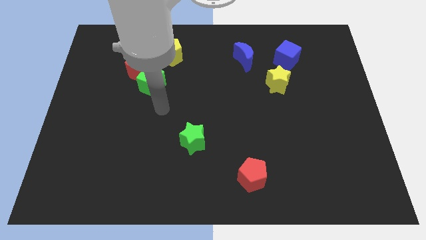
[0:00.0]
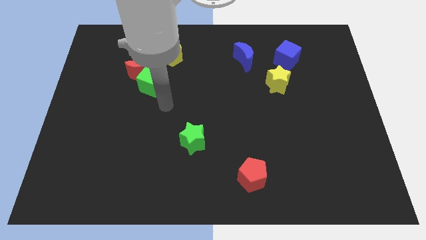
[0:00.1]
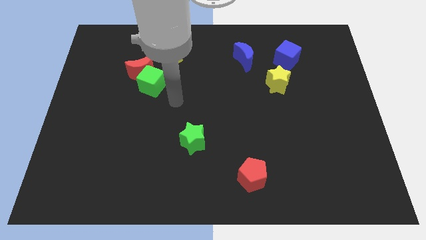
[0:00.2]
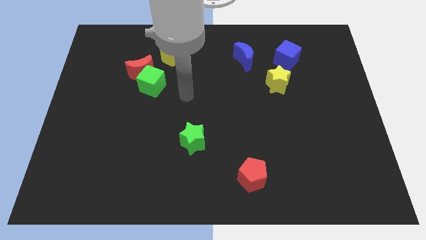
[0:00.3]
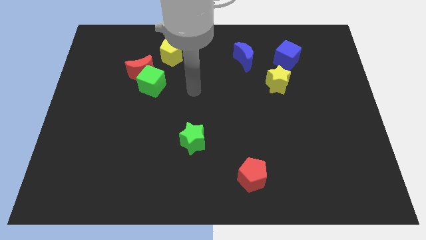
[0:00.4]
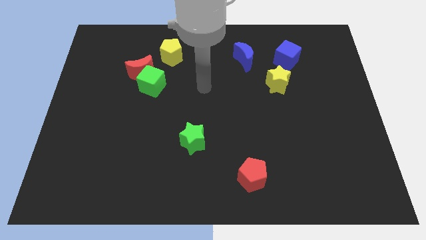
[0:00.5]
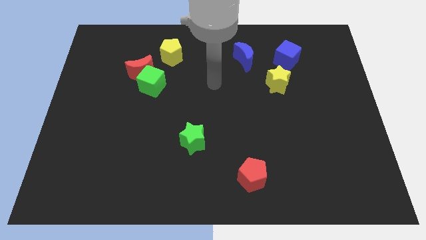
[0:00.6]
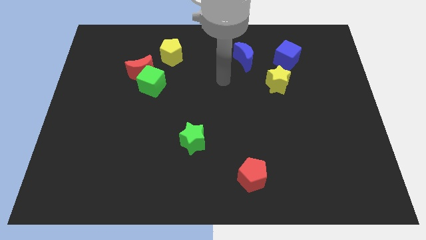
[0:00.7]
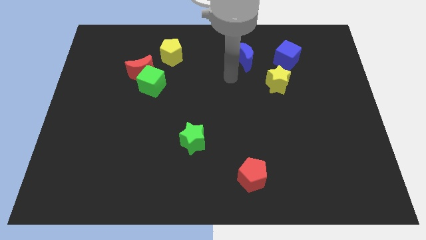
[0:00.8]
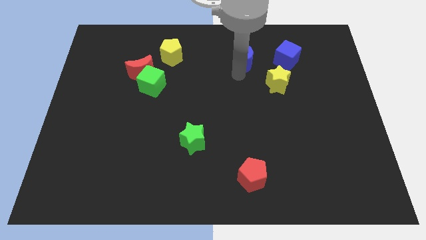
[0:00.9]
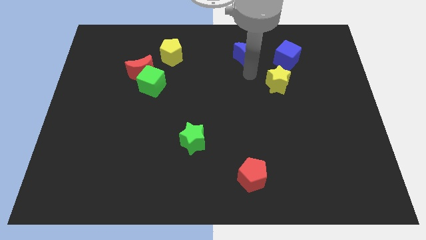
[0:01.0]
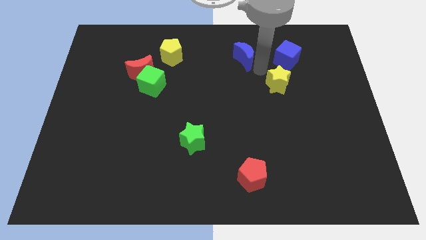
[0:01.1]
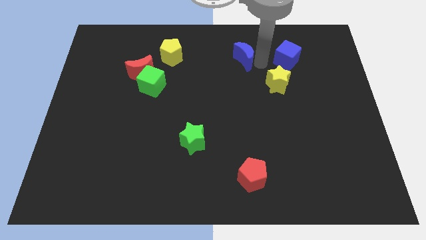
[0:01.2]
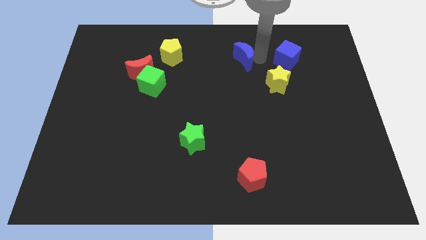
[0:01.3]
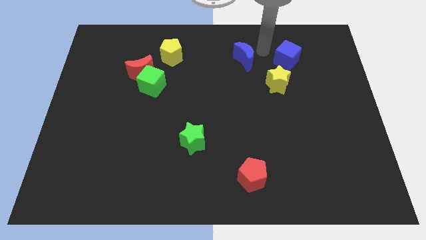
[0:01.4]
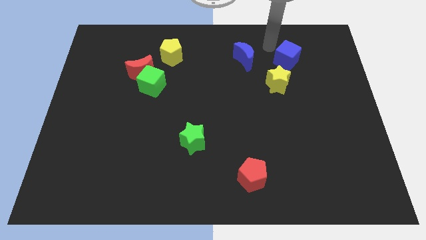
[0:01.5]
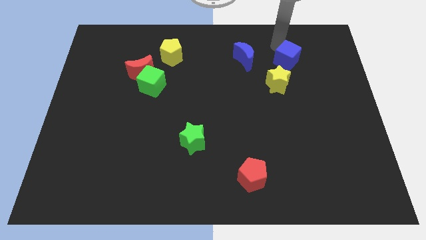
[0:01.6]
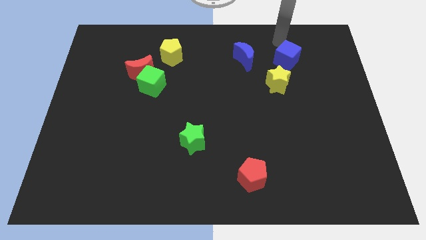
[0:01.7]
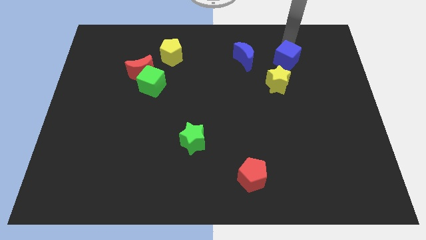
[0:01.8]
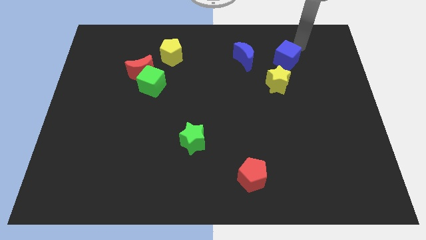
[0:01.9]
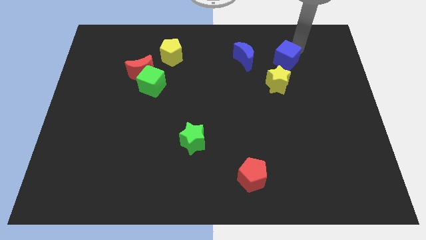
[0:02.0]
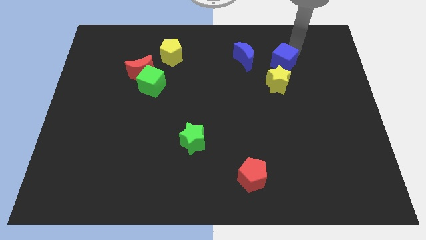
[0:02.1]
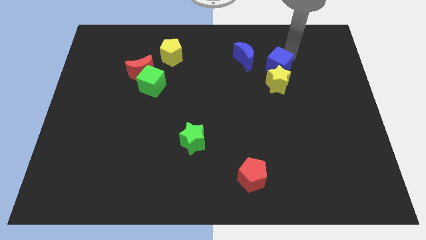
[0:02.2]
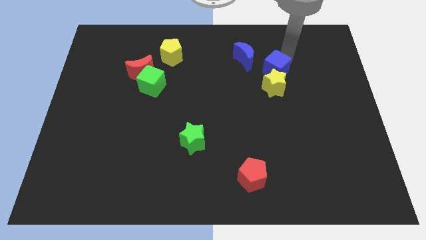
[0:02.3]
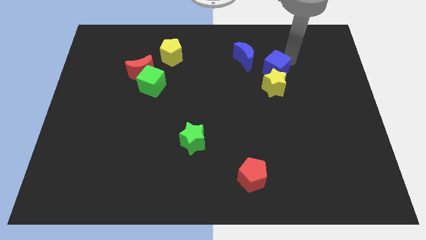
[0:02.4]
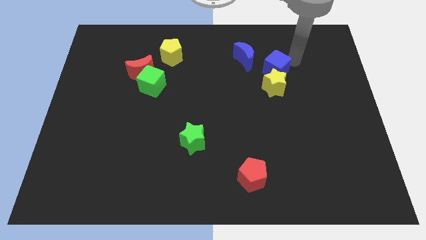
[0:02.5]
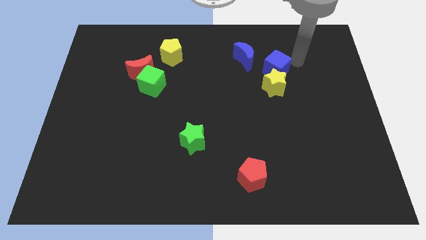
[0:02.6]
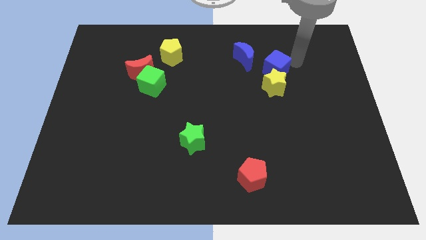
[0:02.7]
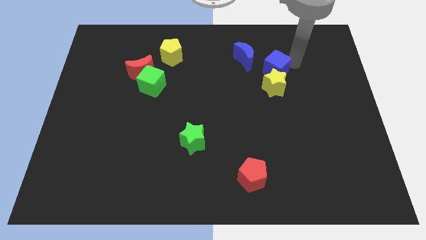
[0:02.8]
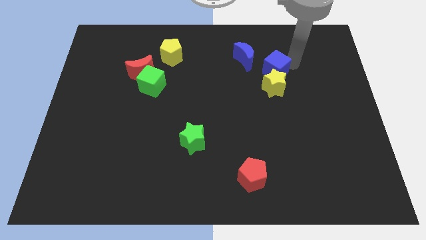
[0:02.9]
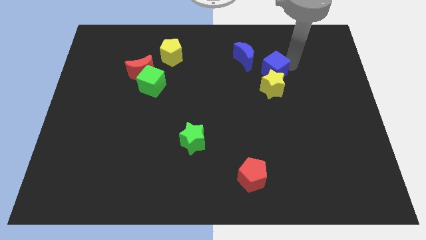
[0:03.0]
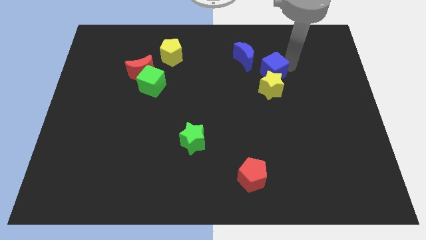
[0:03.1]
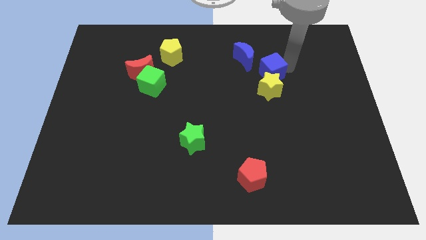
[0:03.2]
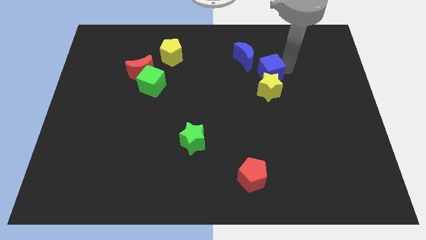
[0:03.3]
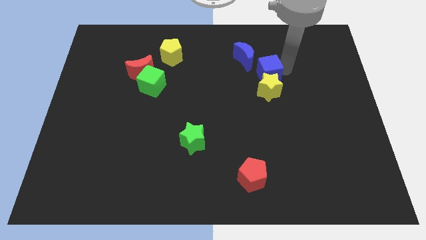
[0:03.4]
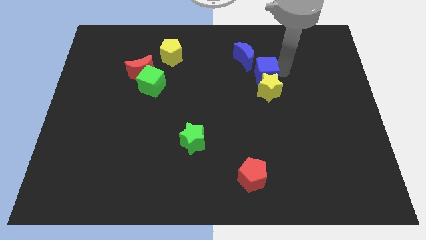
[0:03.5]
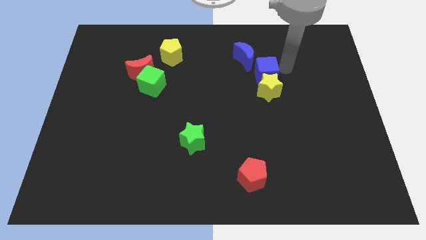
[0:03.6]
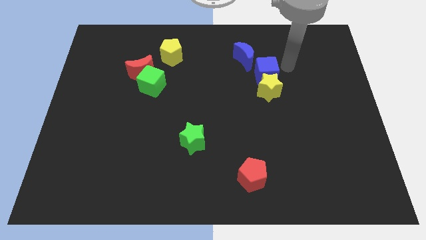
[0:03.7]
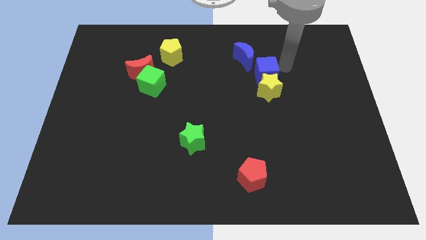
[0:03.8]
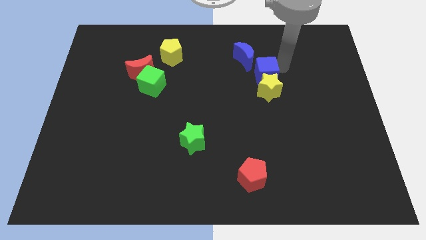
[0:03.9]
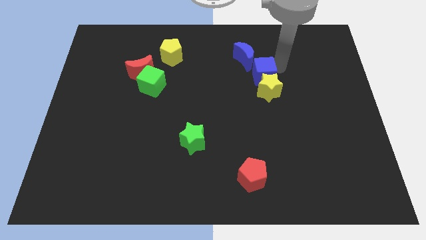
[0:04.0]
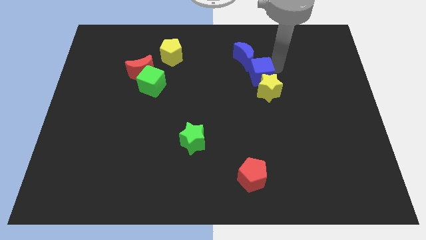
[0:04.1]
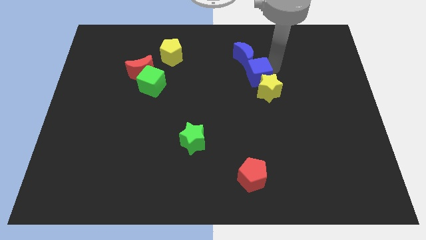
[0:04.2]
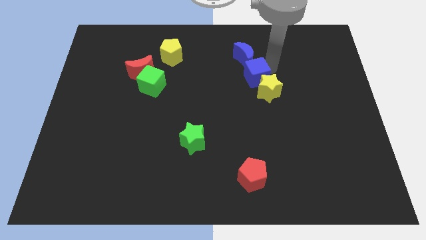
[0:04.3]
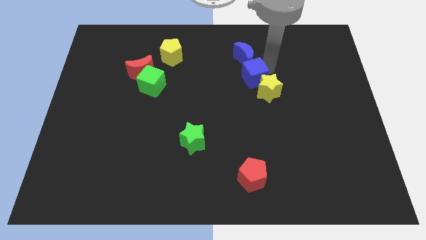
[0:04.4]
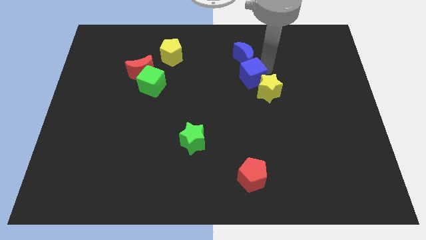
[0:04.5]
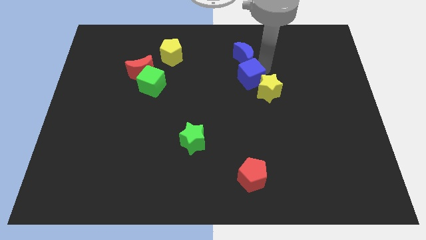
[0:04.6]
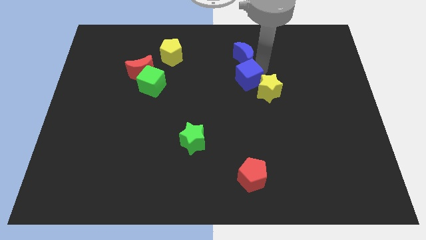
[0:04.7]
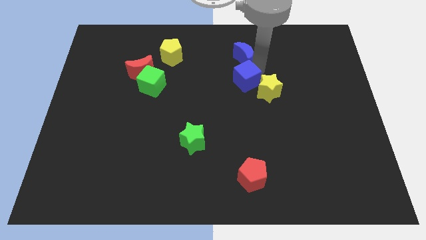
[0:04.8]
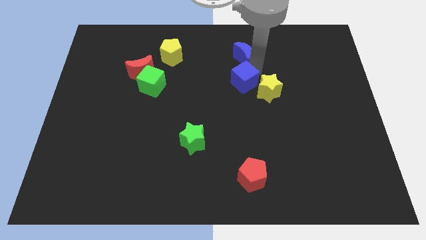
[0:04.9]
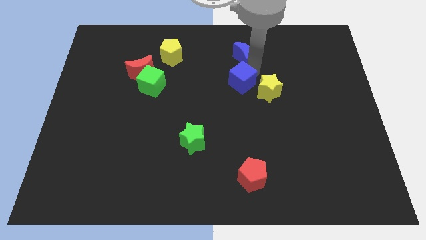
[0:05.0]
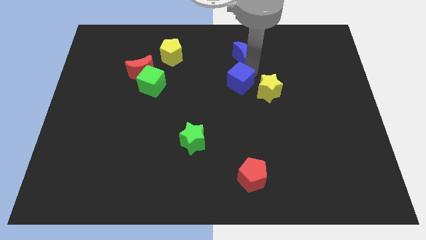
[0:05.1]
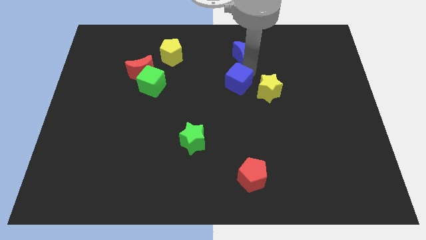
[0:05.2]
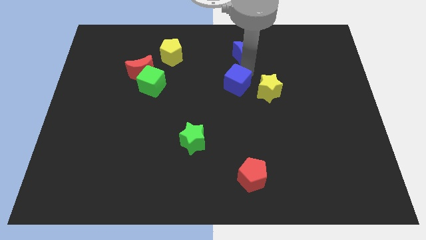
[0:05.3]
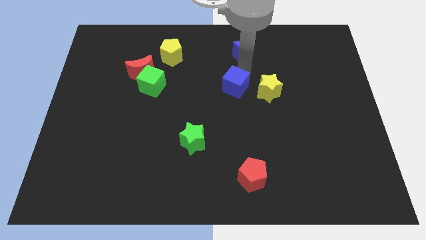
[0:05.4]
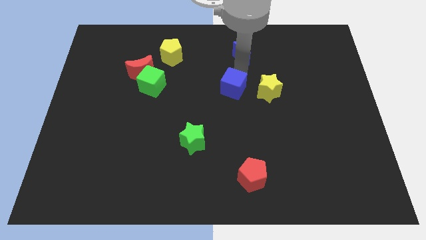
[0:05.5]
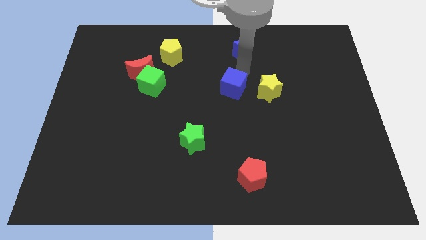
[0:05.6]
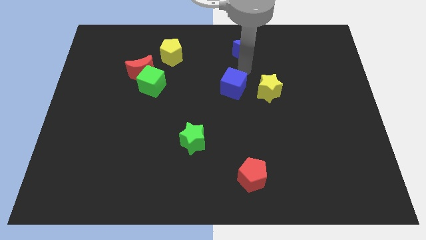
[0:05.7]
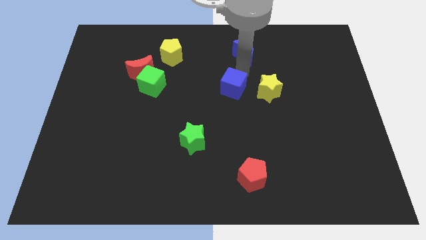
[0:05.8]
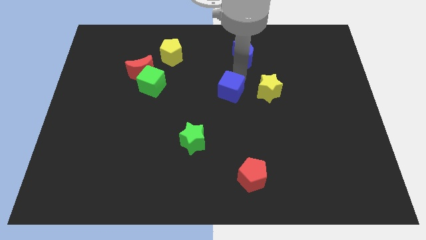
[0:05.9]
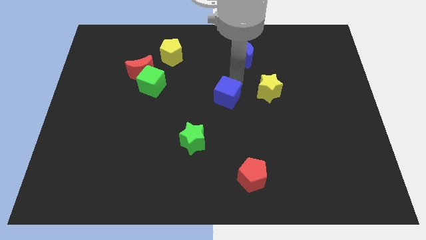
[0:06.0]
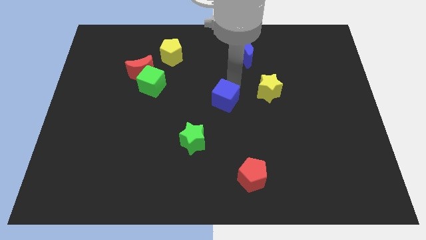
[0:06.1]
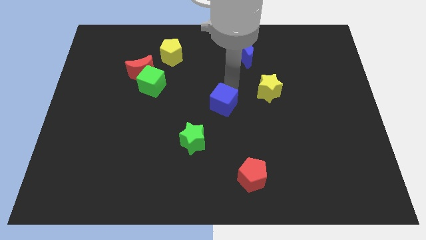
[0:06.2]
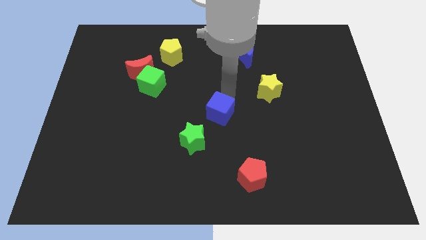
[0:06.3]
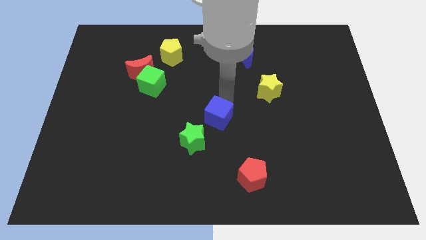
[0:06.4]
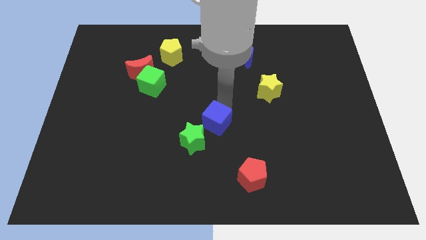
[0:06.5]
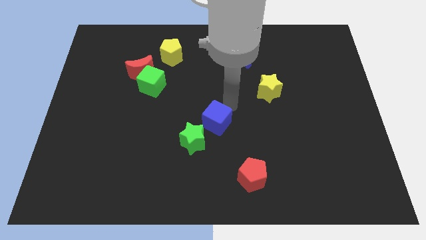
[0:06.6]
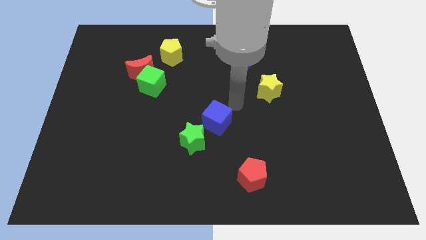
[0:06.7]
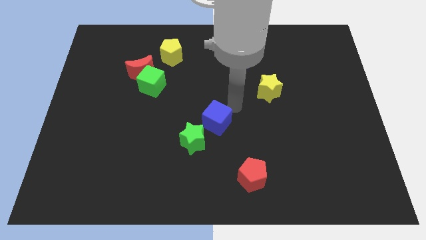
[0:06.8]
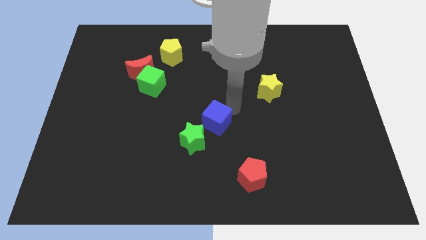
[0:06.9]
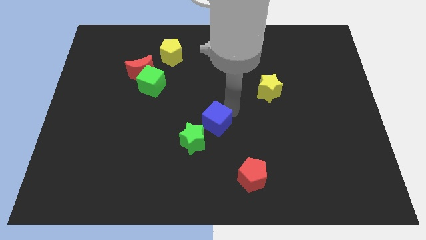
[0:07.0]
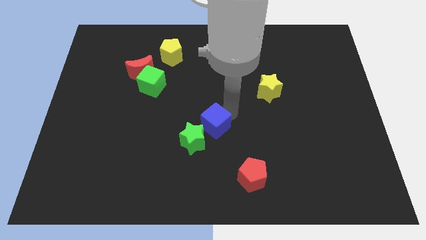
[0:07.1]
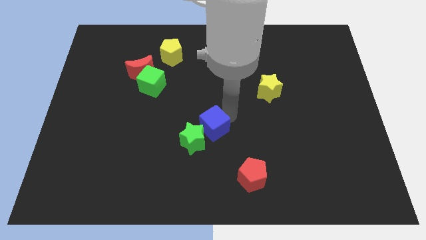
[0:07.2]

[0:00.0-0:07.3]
move the blue cube close to the green star

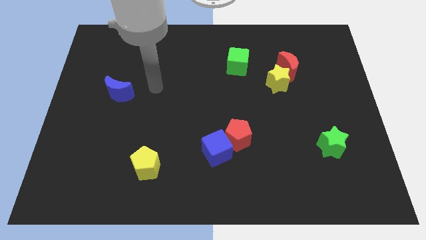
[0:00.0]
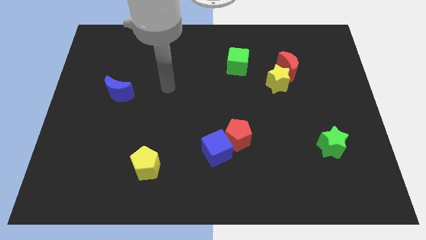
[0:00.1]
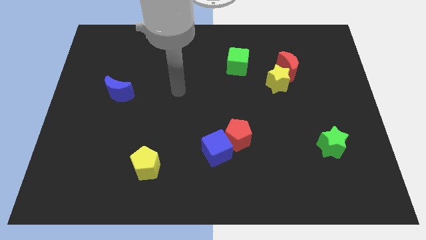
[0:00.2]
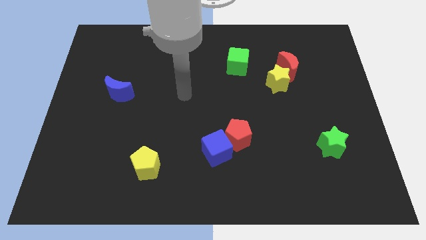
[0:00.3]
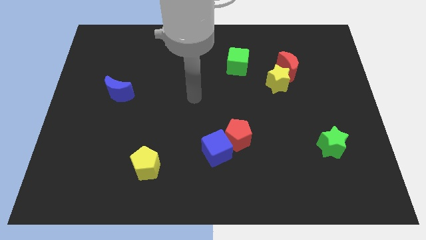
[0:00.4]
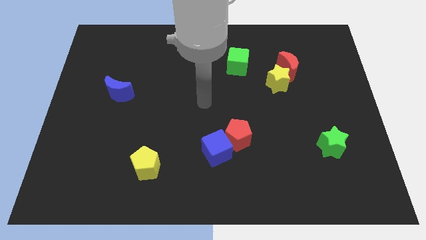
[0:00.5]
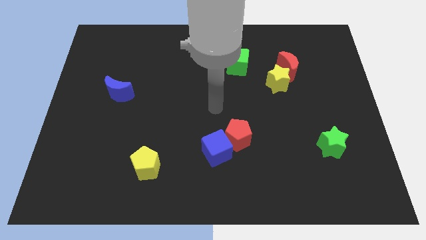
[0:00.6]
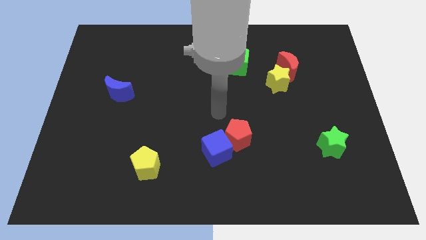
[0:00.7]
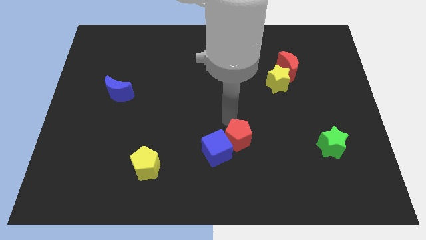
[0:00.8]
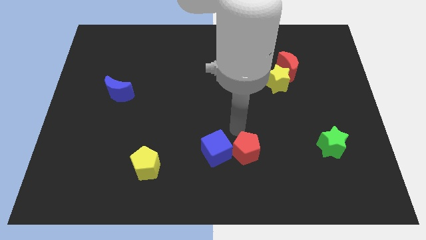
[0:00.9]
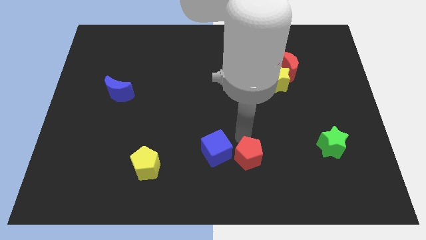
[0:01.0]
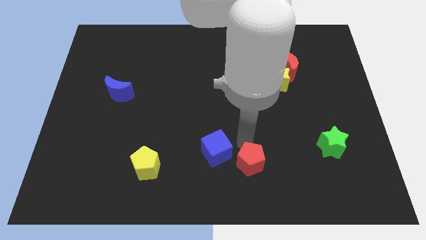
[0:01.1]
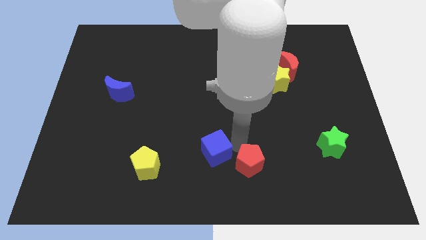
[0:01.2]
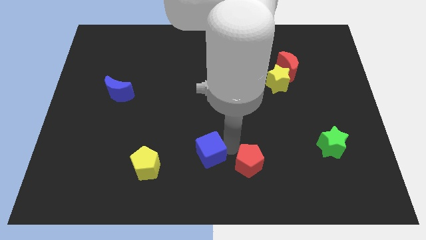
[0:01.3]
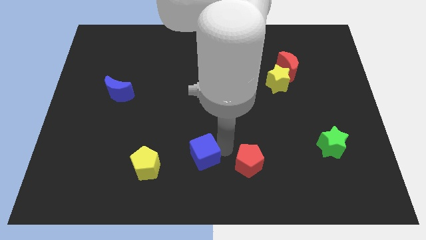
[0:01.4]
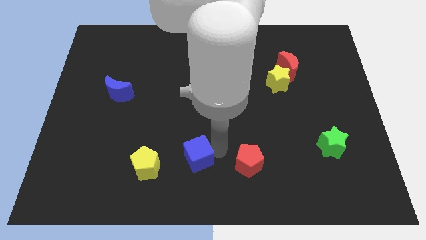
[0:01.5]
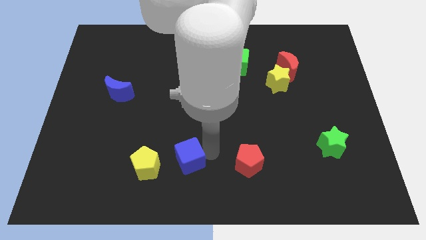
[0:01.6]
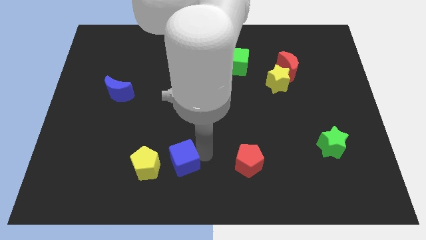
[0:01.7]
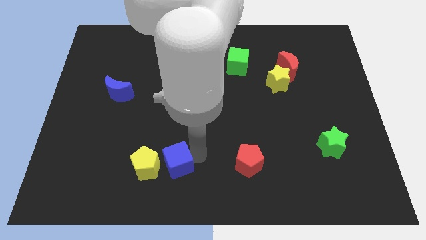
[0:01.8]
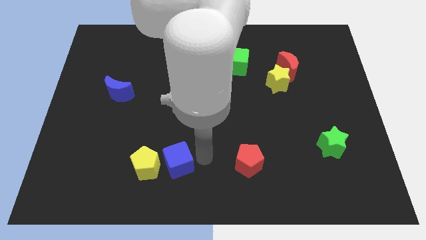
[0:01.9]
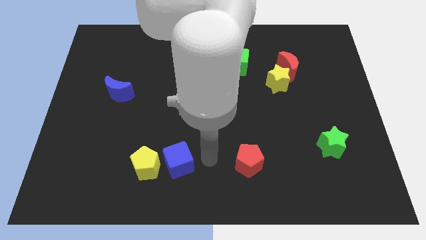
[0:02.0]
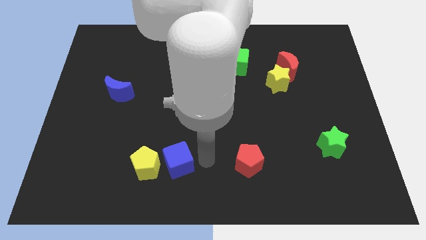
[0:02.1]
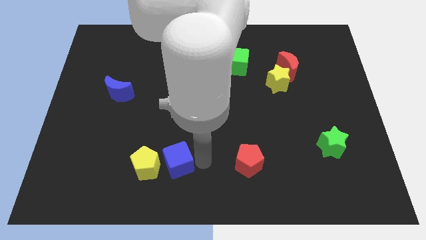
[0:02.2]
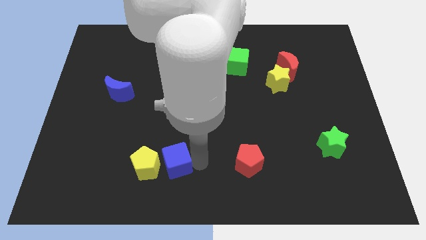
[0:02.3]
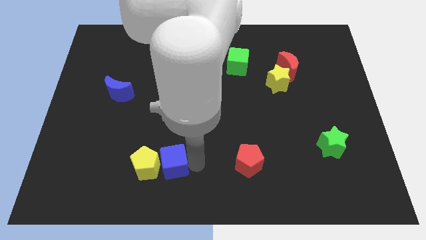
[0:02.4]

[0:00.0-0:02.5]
push the blue cube to the yellow pentagon
